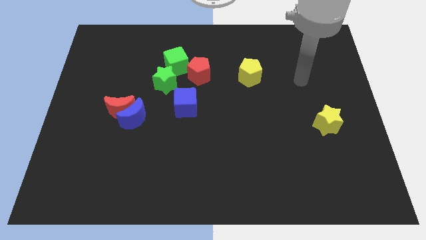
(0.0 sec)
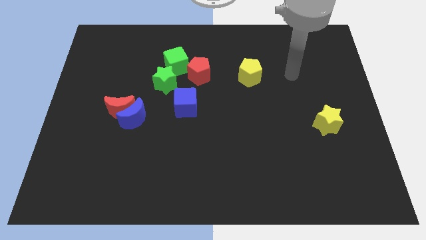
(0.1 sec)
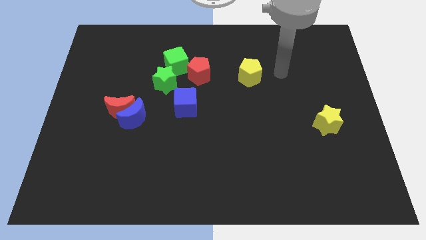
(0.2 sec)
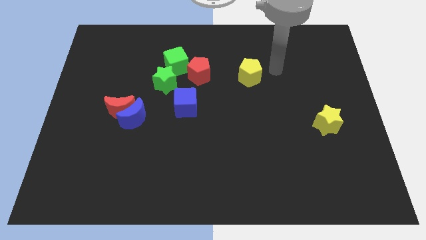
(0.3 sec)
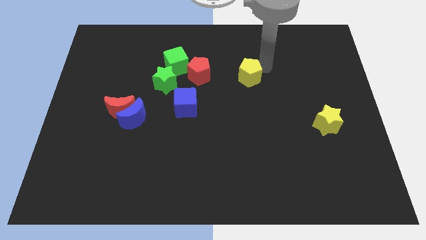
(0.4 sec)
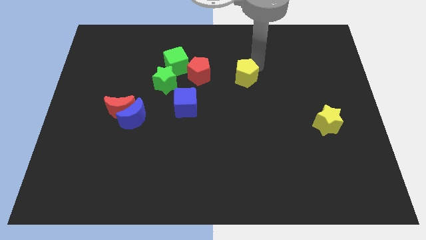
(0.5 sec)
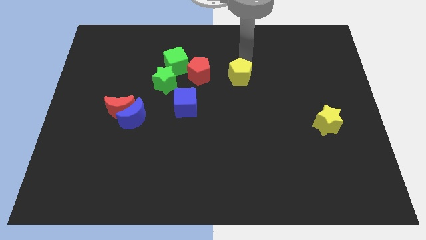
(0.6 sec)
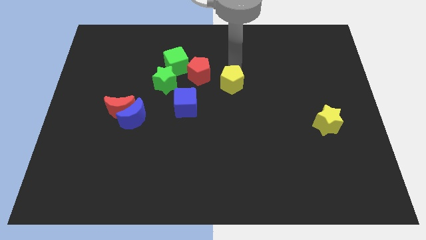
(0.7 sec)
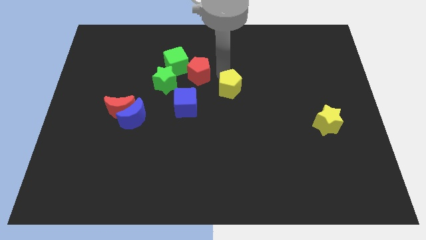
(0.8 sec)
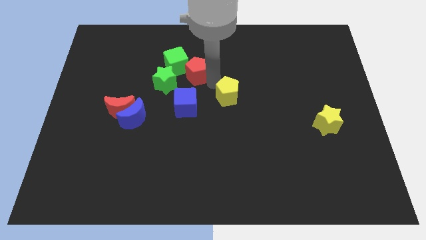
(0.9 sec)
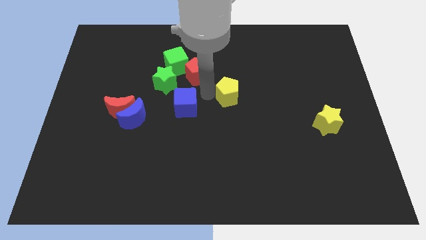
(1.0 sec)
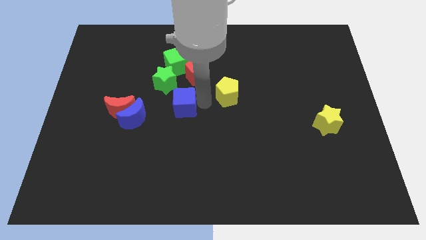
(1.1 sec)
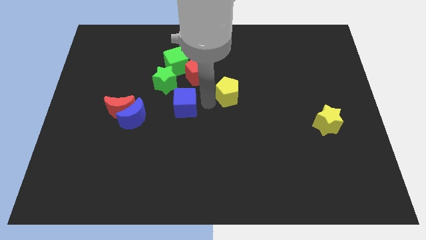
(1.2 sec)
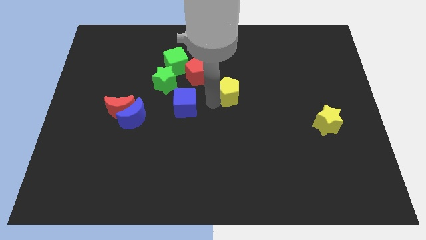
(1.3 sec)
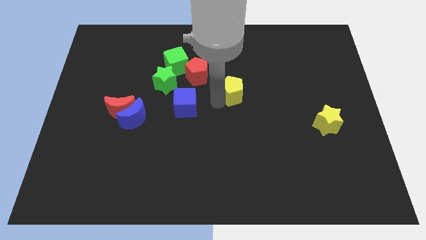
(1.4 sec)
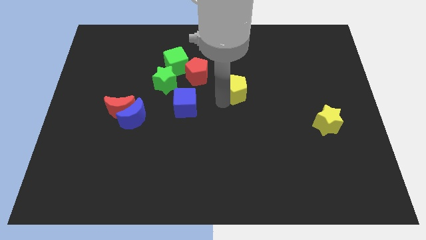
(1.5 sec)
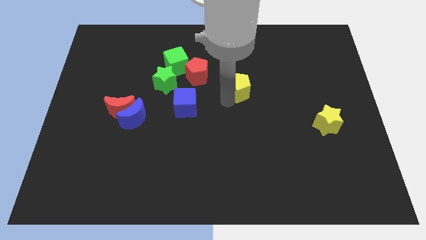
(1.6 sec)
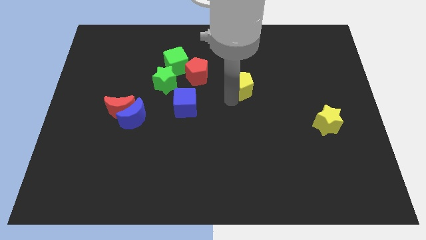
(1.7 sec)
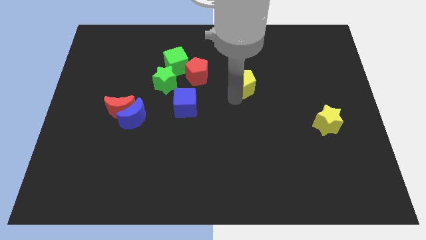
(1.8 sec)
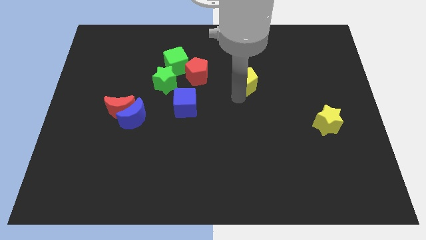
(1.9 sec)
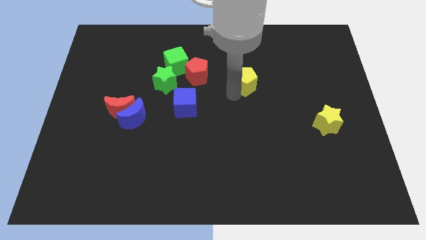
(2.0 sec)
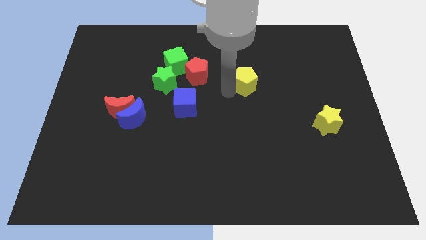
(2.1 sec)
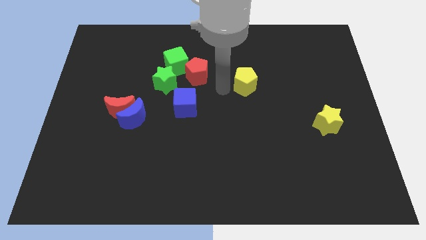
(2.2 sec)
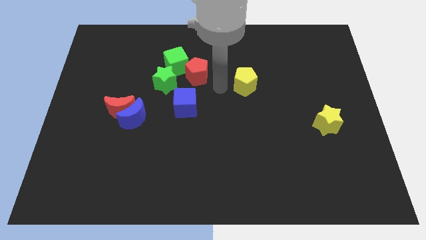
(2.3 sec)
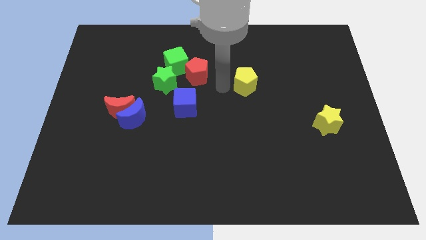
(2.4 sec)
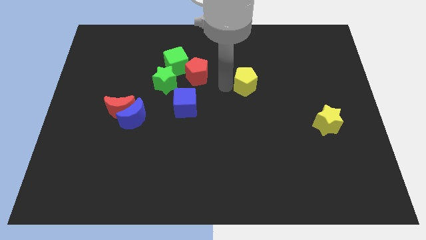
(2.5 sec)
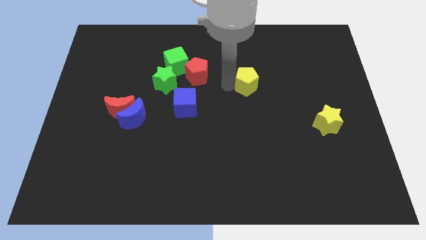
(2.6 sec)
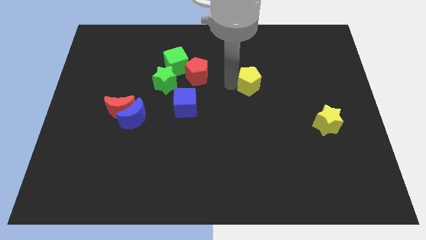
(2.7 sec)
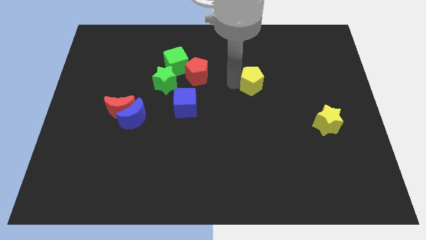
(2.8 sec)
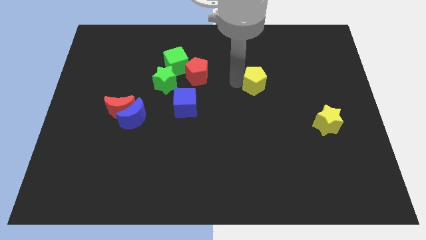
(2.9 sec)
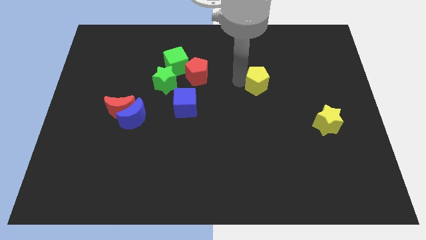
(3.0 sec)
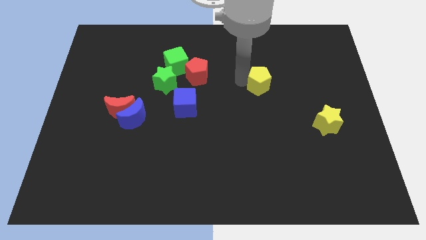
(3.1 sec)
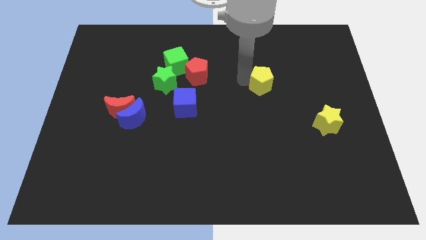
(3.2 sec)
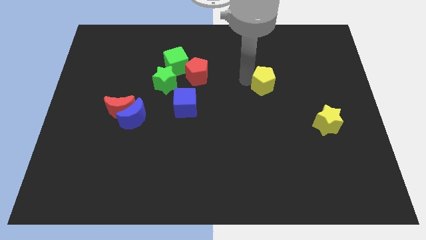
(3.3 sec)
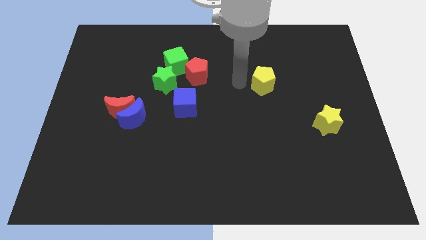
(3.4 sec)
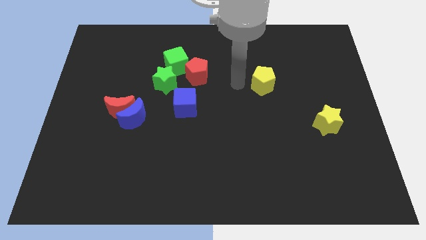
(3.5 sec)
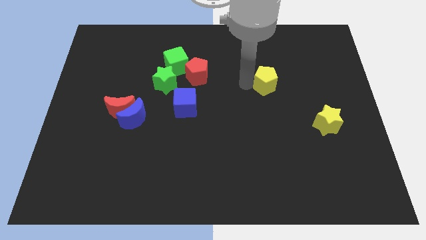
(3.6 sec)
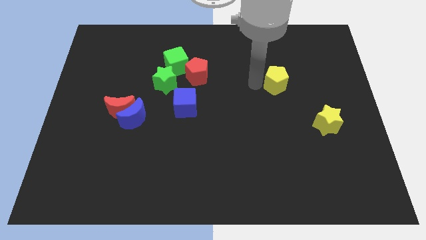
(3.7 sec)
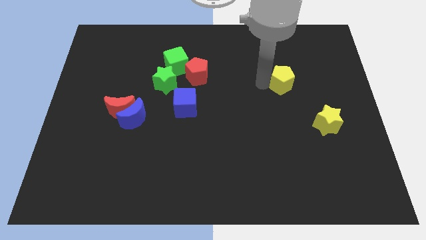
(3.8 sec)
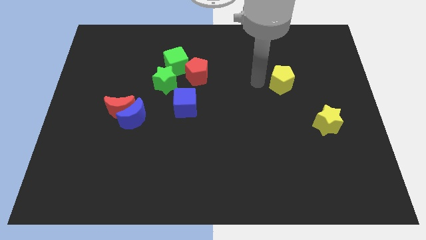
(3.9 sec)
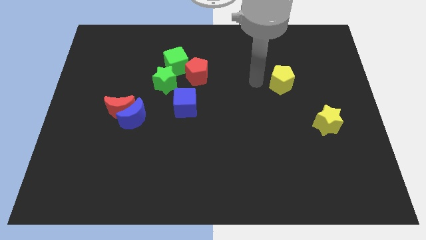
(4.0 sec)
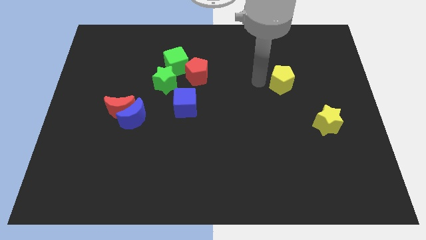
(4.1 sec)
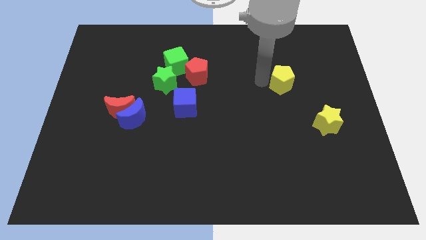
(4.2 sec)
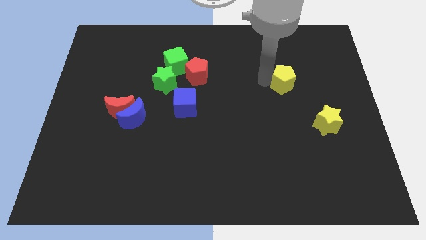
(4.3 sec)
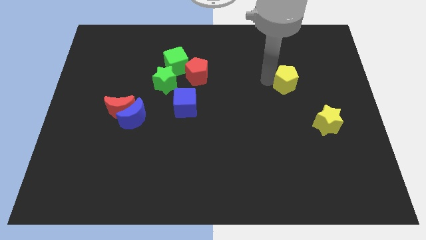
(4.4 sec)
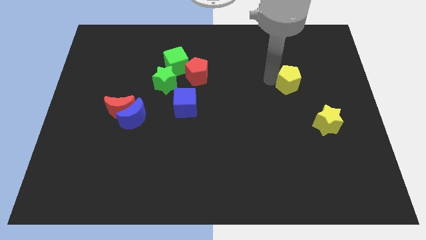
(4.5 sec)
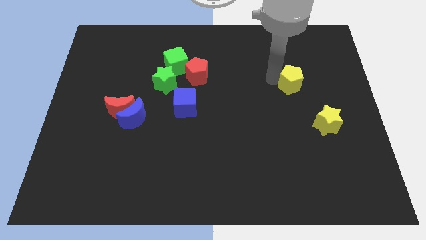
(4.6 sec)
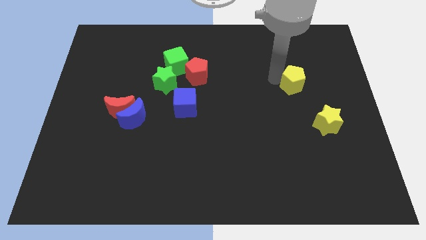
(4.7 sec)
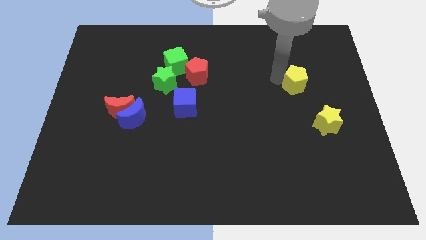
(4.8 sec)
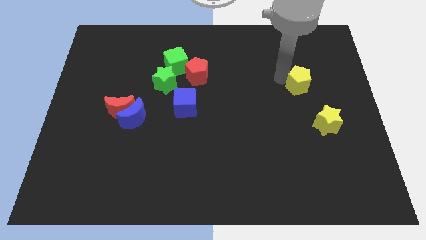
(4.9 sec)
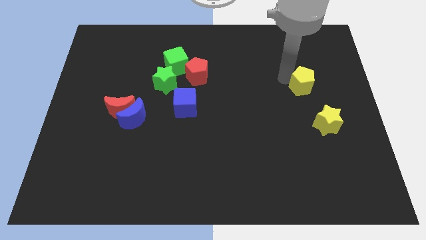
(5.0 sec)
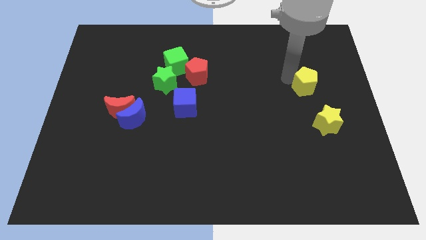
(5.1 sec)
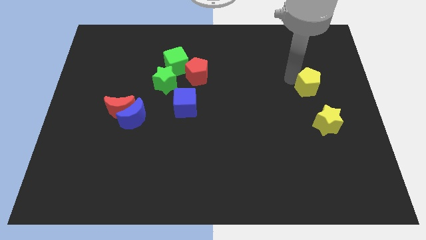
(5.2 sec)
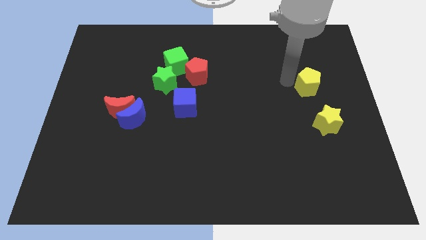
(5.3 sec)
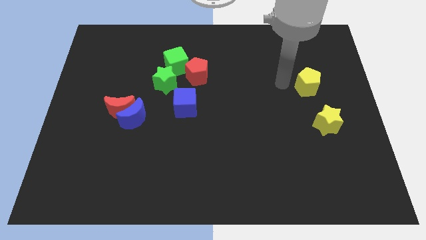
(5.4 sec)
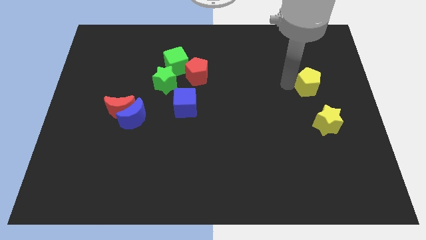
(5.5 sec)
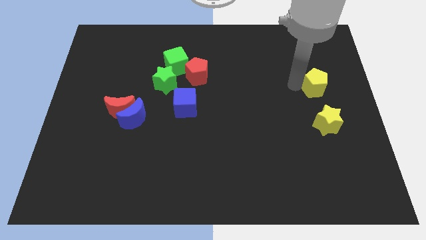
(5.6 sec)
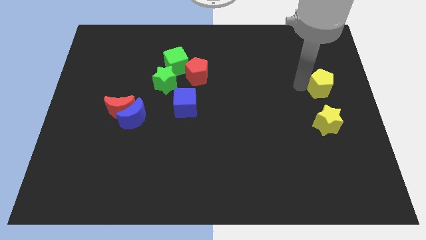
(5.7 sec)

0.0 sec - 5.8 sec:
put the yellow pentagon to the right side

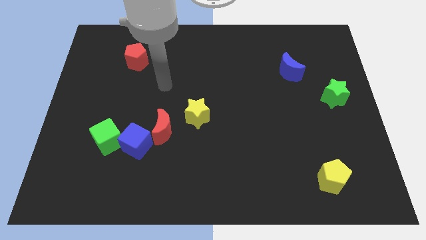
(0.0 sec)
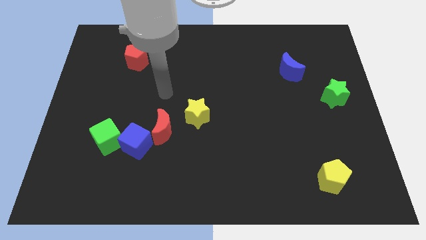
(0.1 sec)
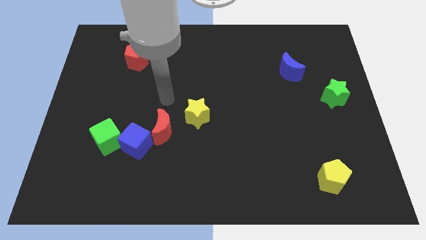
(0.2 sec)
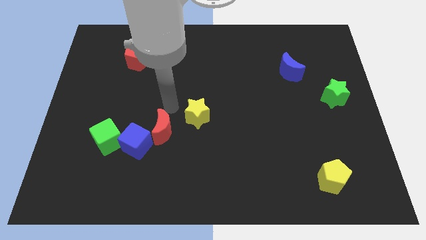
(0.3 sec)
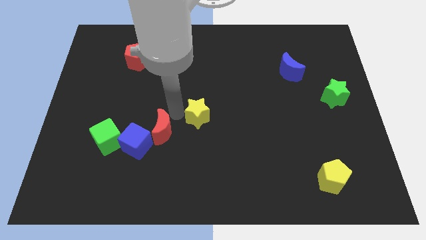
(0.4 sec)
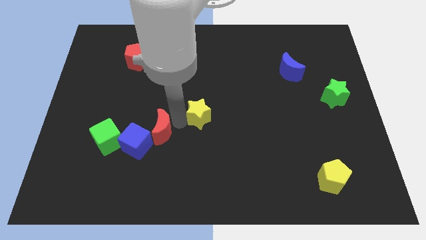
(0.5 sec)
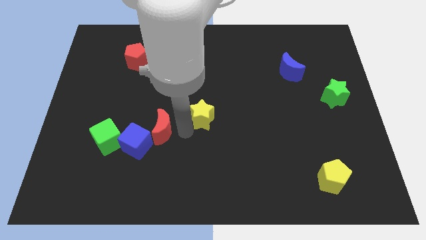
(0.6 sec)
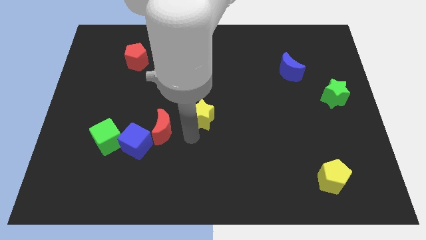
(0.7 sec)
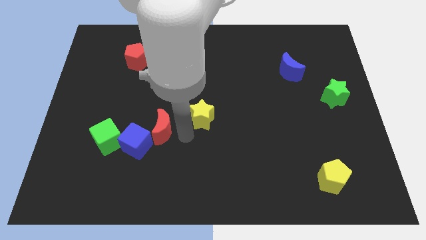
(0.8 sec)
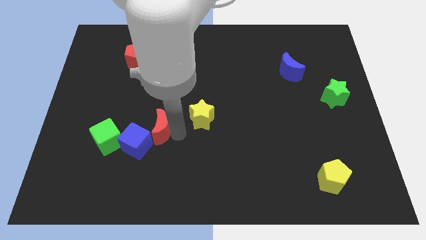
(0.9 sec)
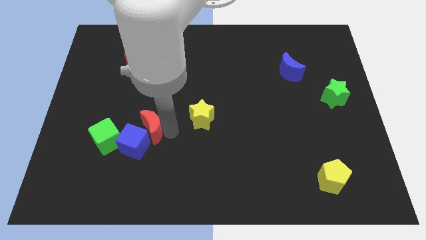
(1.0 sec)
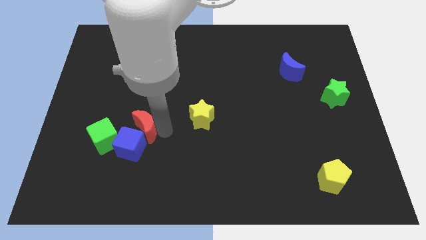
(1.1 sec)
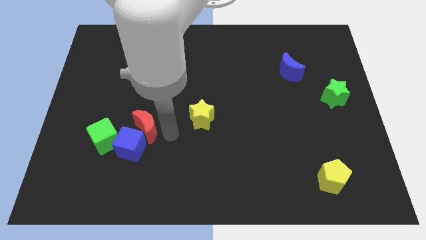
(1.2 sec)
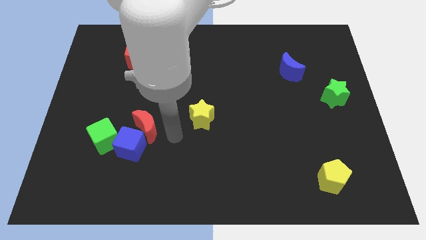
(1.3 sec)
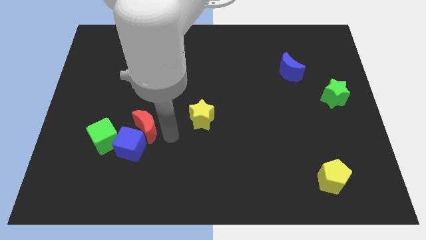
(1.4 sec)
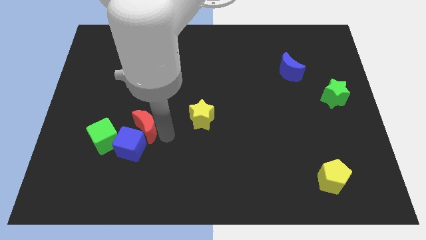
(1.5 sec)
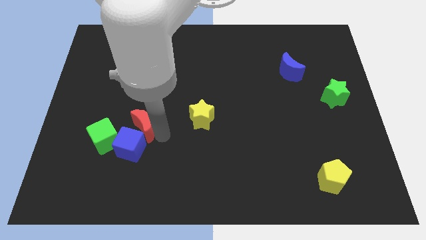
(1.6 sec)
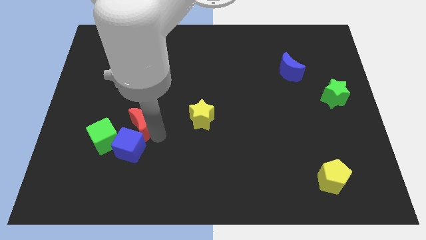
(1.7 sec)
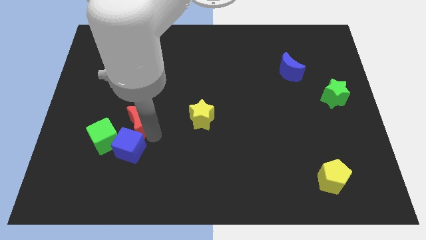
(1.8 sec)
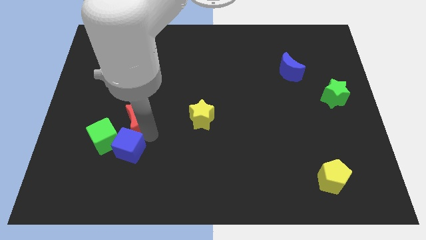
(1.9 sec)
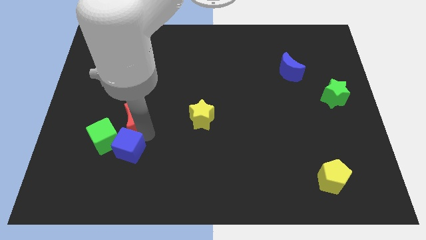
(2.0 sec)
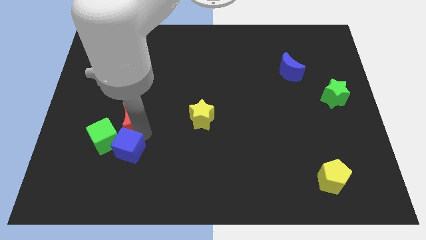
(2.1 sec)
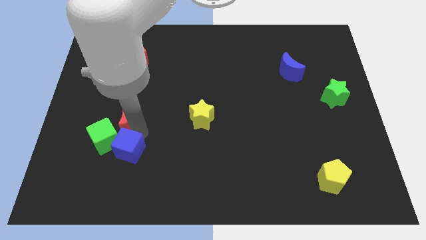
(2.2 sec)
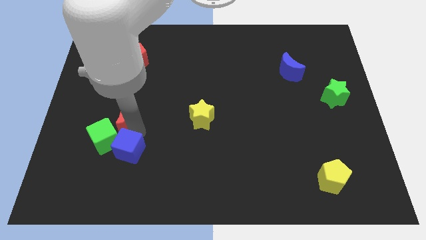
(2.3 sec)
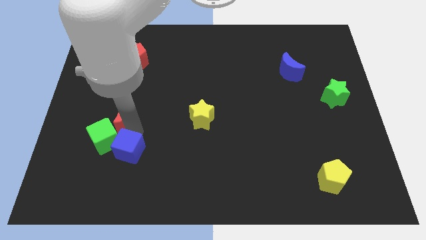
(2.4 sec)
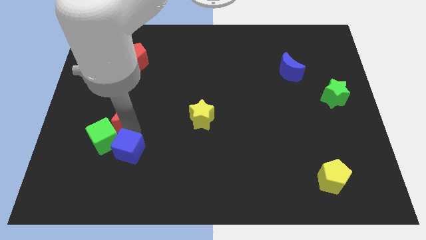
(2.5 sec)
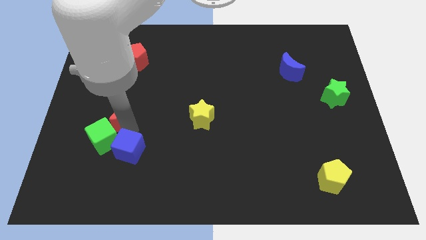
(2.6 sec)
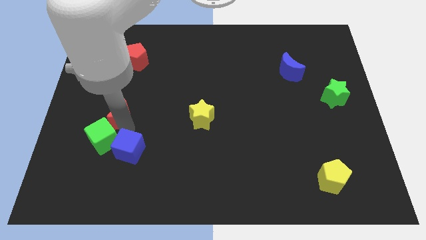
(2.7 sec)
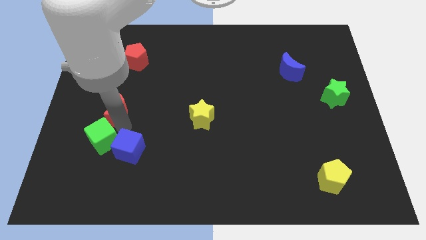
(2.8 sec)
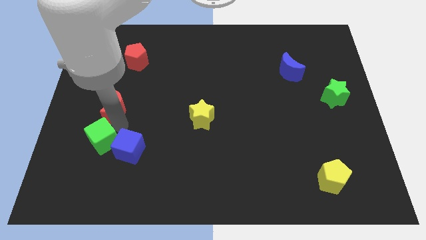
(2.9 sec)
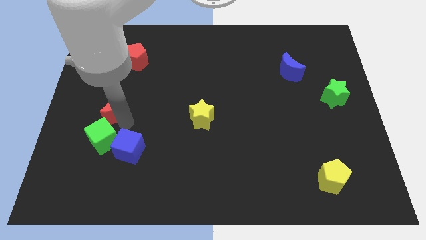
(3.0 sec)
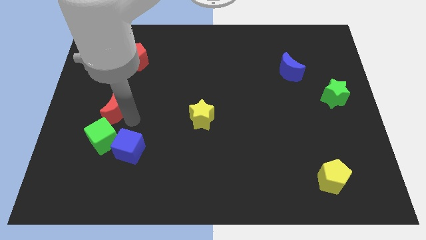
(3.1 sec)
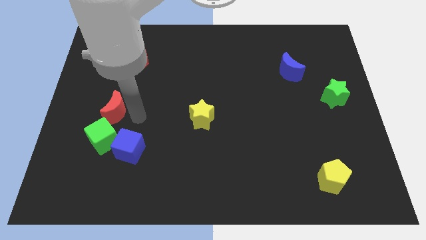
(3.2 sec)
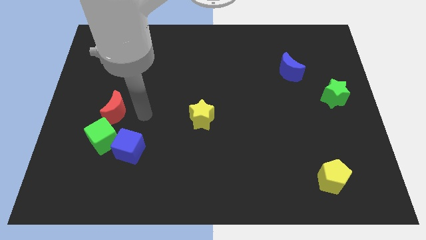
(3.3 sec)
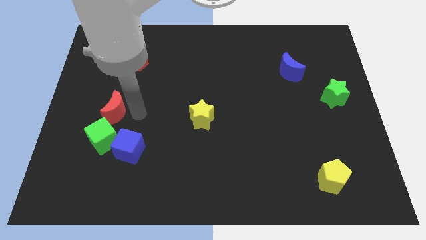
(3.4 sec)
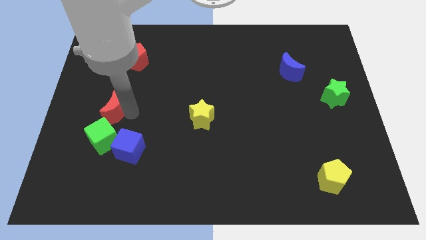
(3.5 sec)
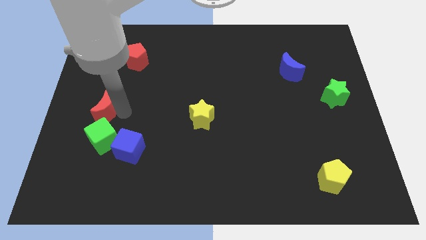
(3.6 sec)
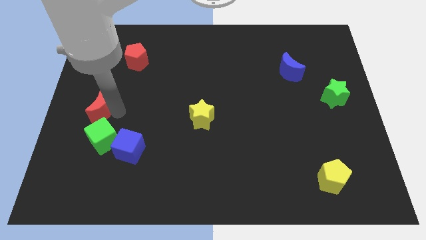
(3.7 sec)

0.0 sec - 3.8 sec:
move the red moon to the left side of the board
